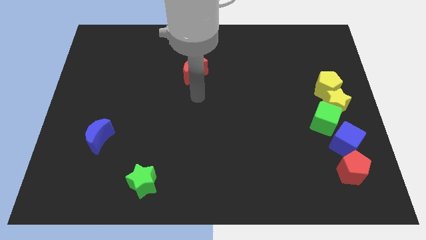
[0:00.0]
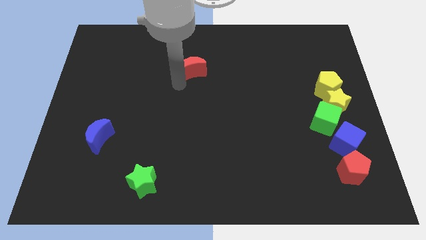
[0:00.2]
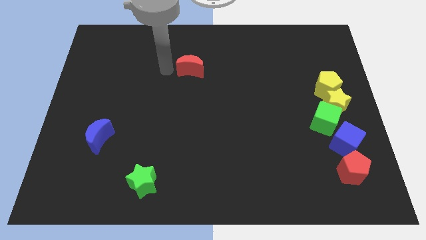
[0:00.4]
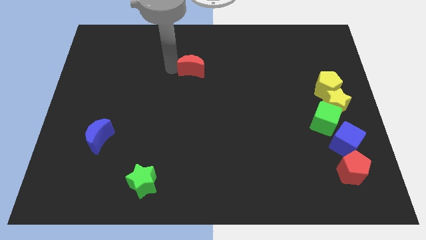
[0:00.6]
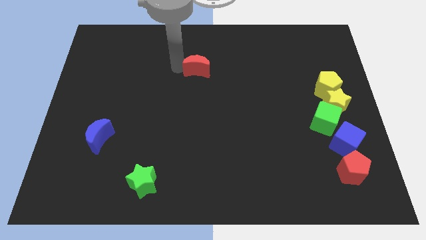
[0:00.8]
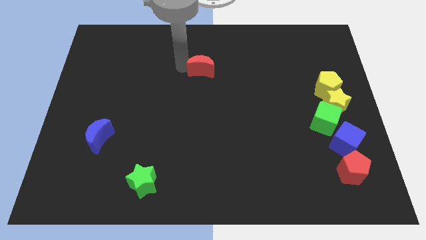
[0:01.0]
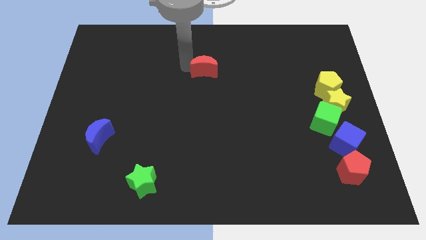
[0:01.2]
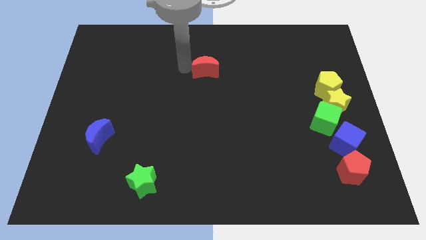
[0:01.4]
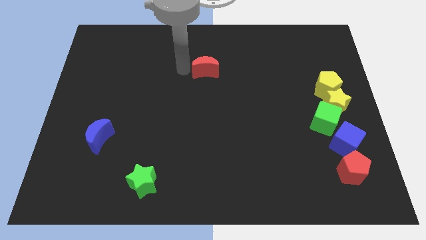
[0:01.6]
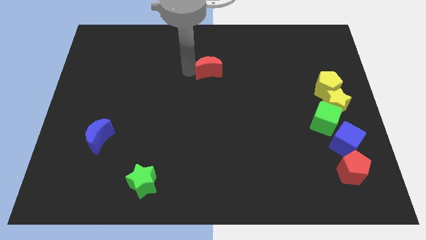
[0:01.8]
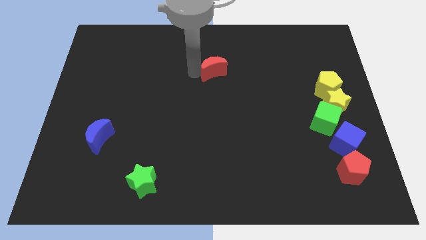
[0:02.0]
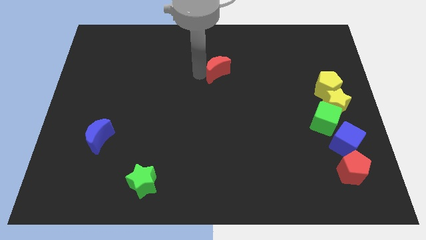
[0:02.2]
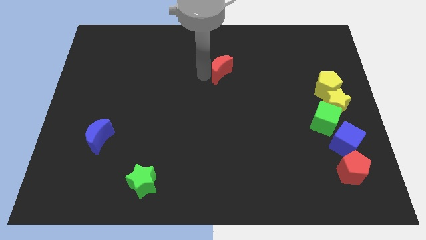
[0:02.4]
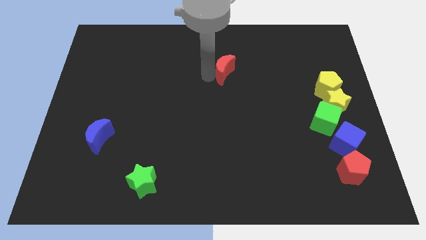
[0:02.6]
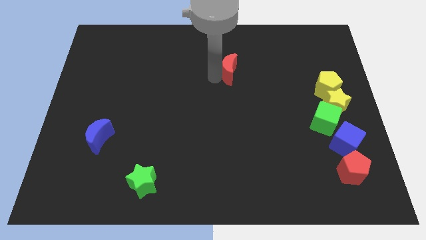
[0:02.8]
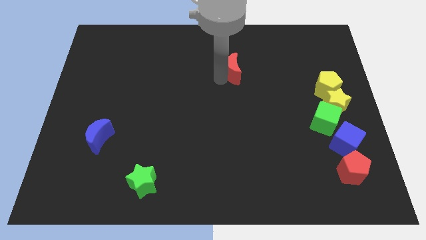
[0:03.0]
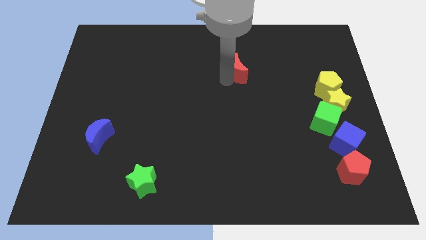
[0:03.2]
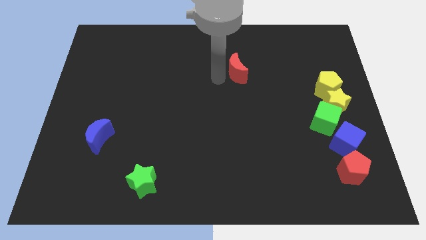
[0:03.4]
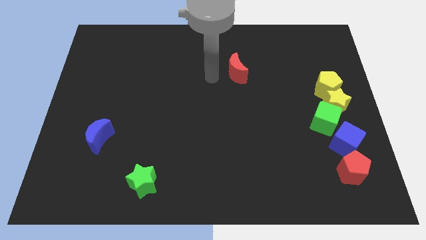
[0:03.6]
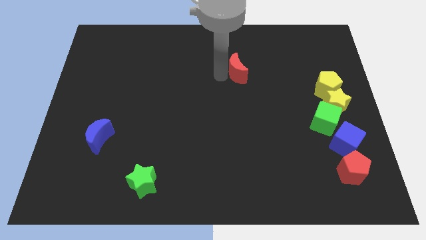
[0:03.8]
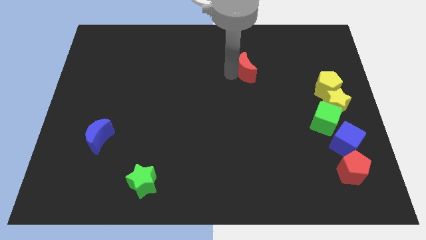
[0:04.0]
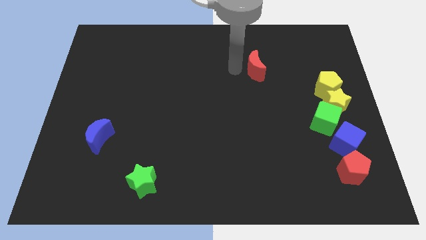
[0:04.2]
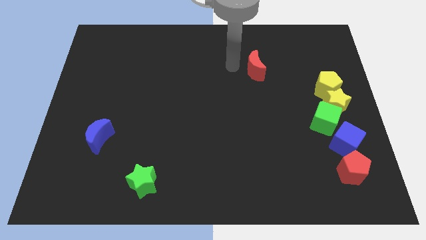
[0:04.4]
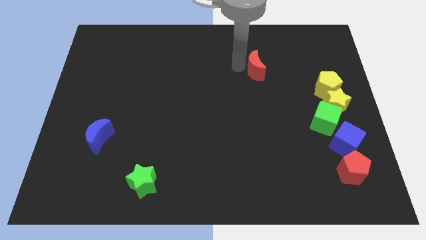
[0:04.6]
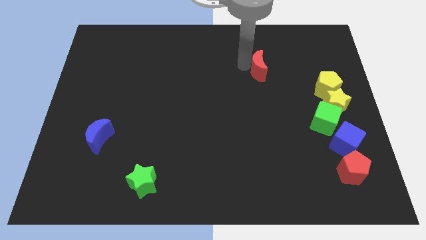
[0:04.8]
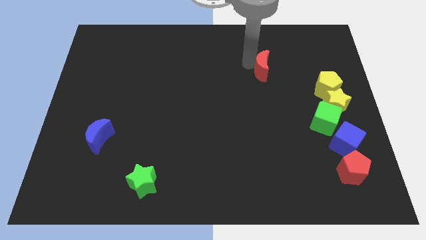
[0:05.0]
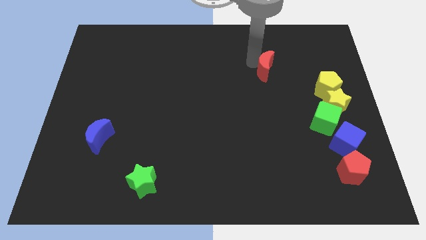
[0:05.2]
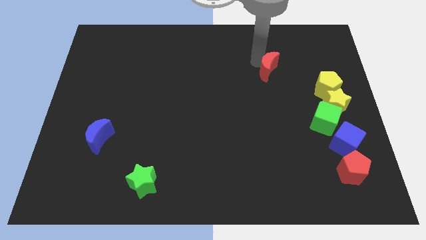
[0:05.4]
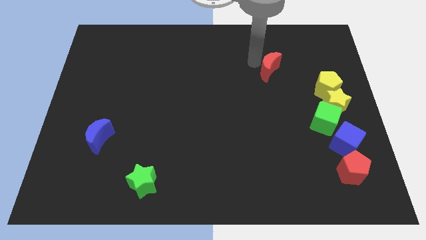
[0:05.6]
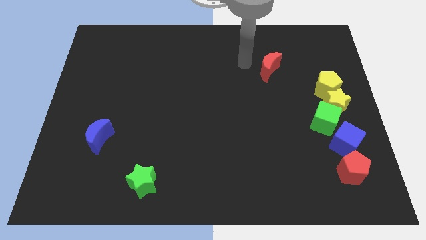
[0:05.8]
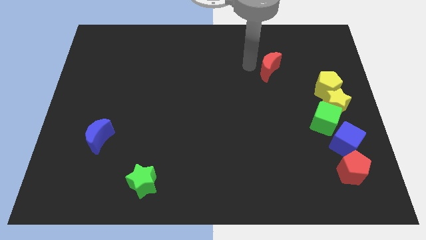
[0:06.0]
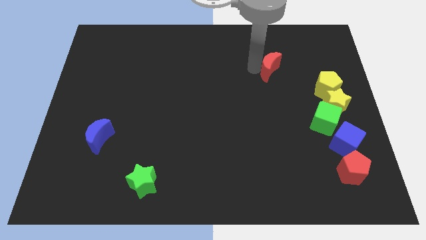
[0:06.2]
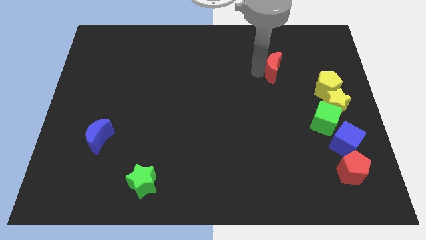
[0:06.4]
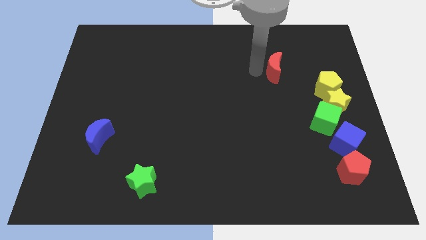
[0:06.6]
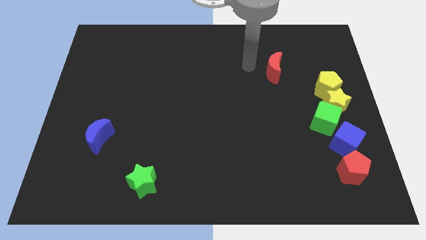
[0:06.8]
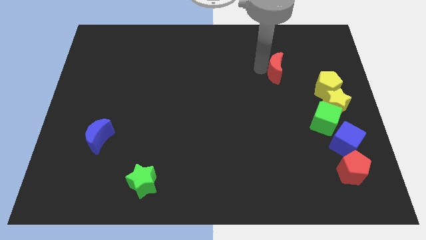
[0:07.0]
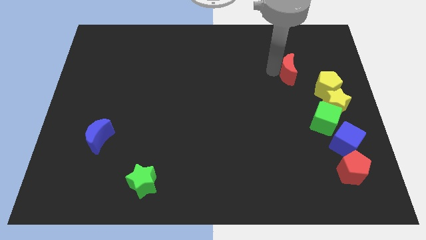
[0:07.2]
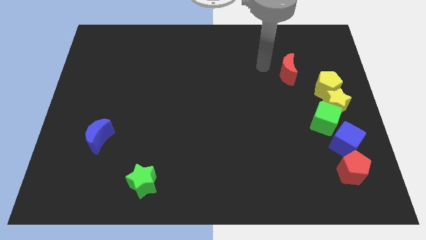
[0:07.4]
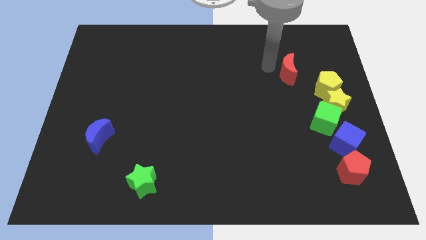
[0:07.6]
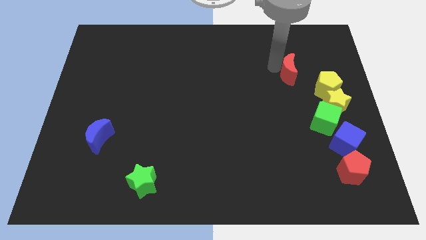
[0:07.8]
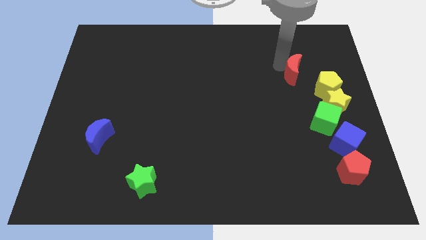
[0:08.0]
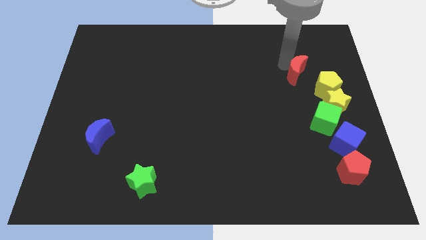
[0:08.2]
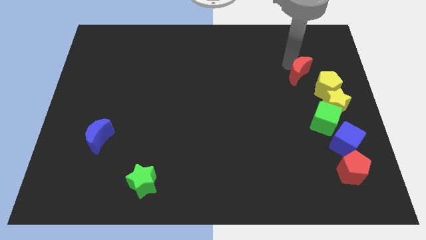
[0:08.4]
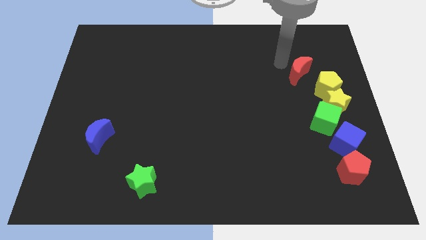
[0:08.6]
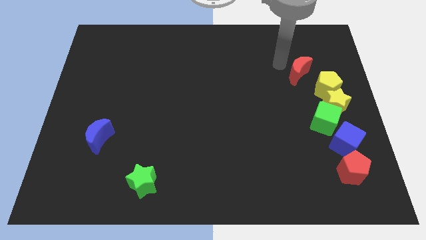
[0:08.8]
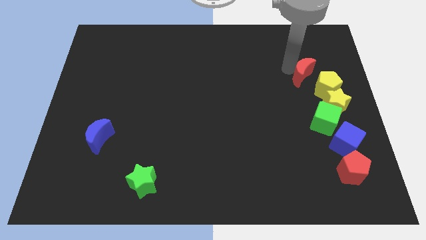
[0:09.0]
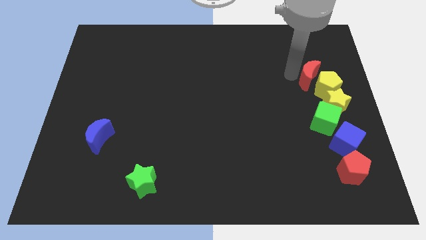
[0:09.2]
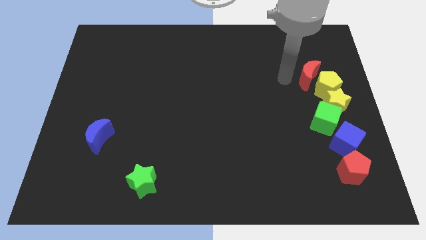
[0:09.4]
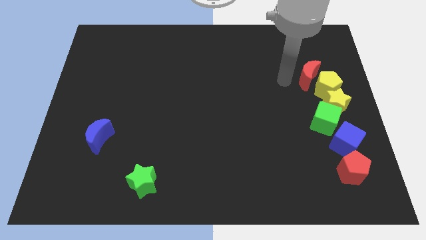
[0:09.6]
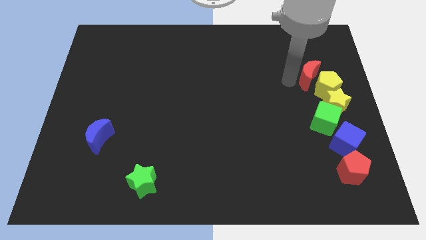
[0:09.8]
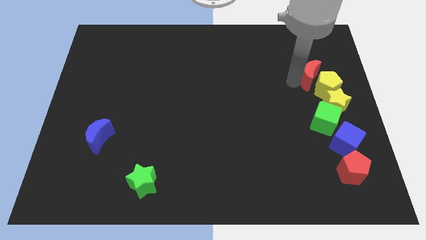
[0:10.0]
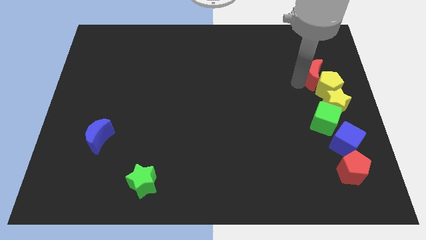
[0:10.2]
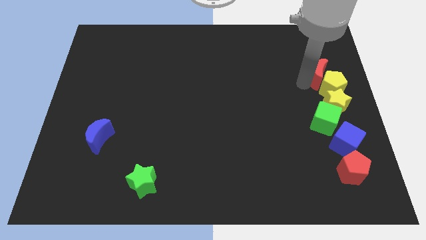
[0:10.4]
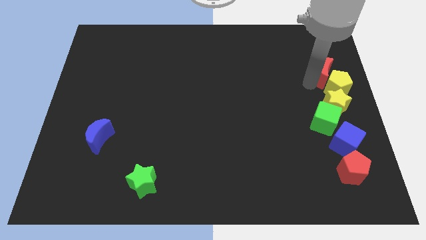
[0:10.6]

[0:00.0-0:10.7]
move the red moon to the right side of the board

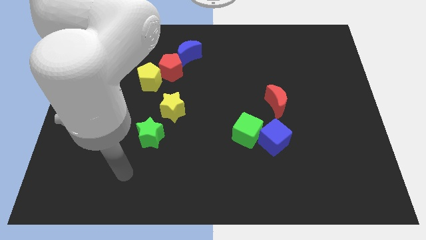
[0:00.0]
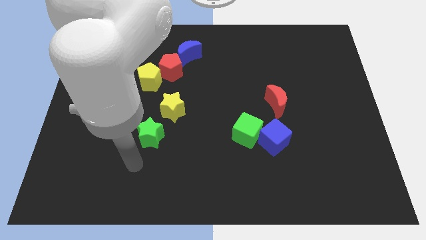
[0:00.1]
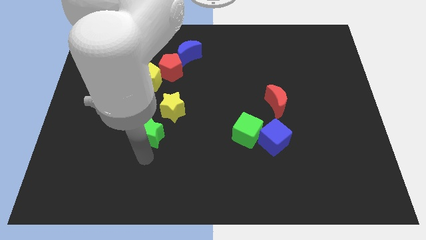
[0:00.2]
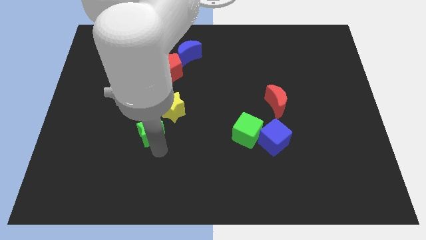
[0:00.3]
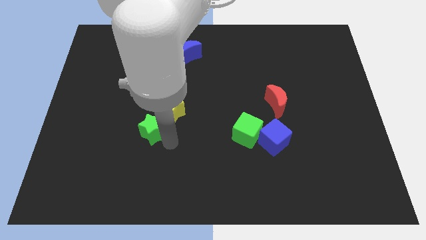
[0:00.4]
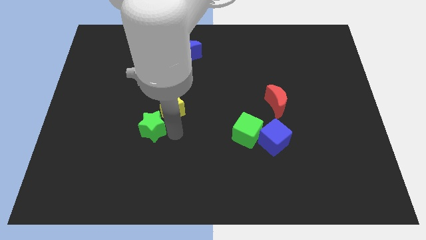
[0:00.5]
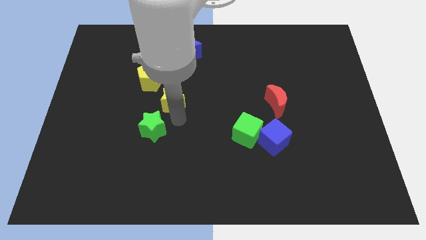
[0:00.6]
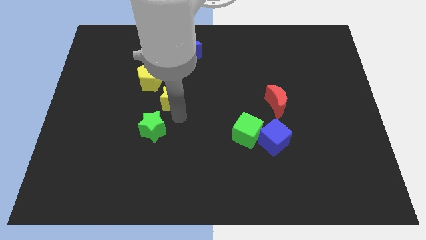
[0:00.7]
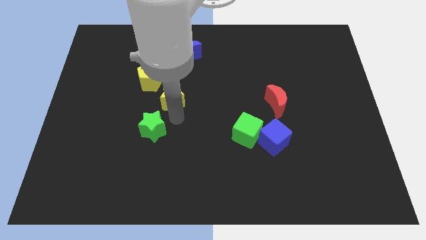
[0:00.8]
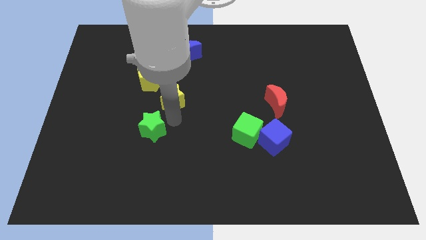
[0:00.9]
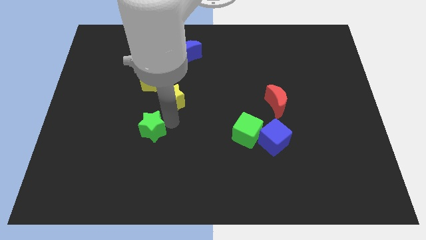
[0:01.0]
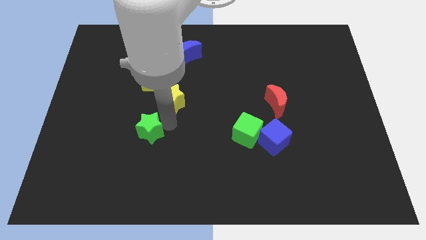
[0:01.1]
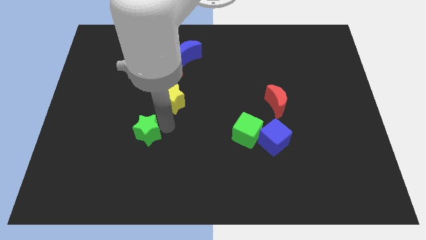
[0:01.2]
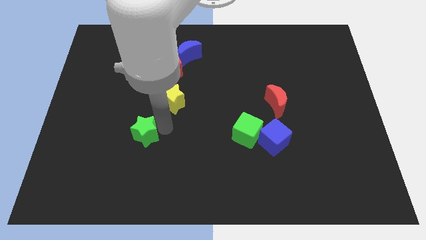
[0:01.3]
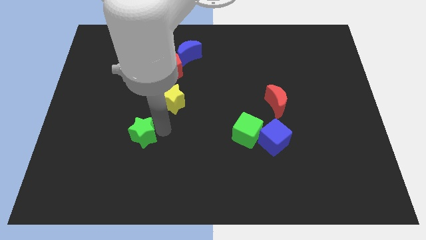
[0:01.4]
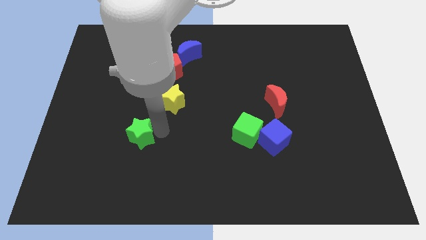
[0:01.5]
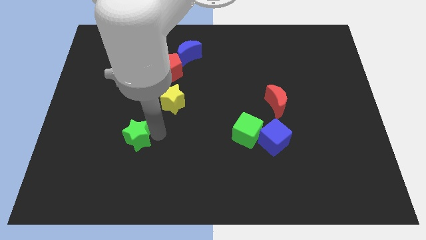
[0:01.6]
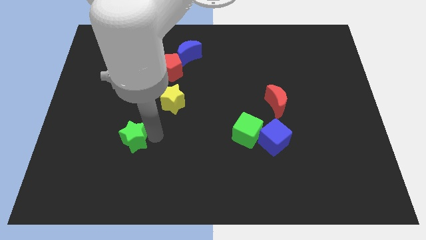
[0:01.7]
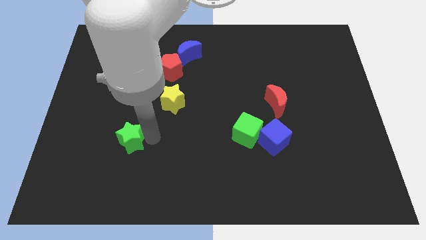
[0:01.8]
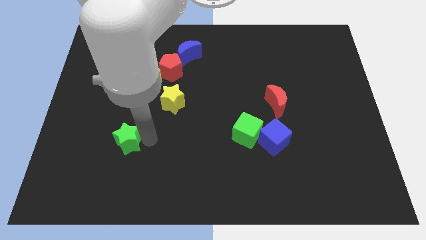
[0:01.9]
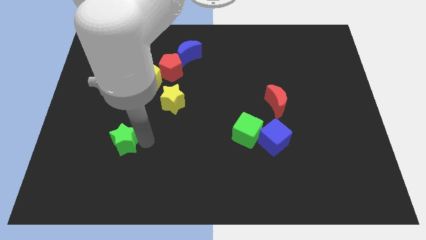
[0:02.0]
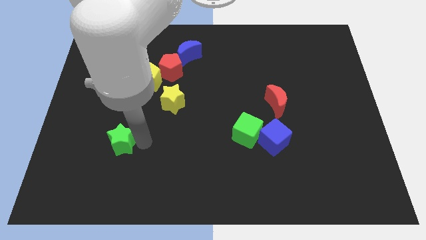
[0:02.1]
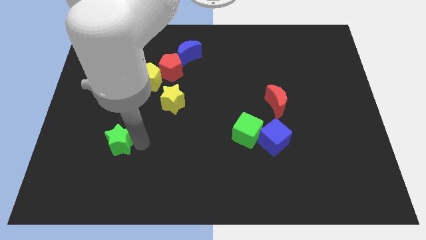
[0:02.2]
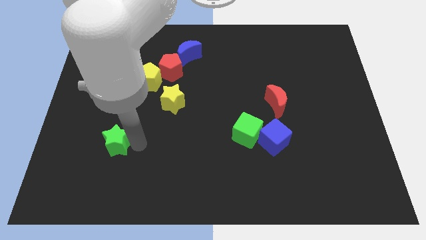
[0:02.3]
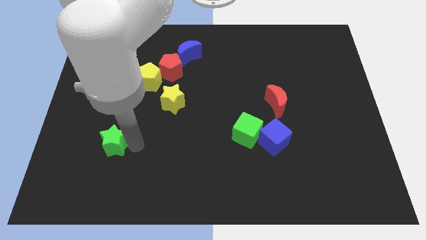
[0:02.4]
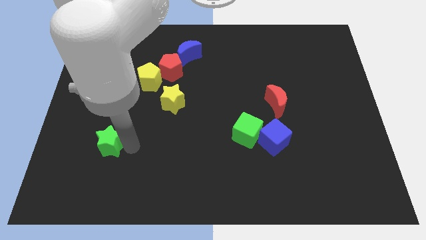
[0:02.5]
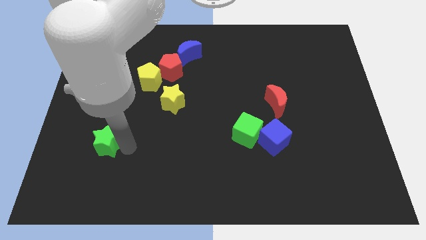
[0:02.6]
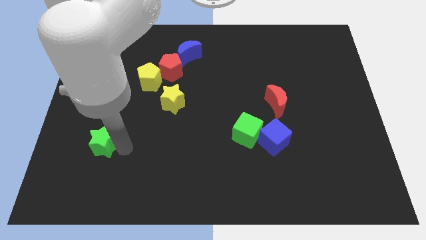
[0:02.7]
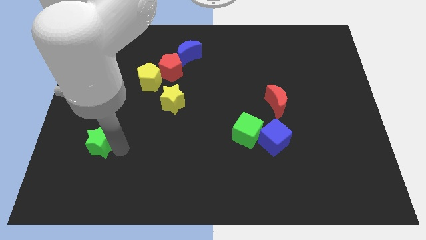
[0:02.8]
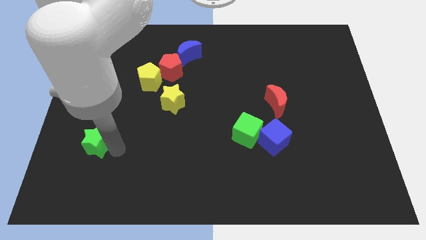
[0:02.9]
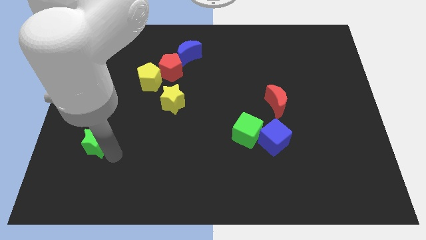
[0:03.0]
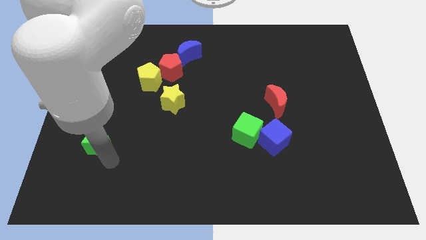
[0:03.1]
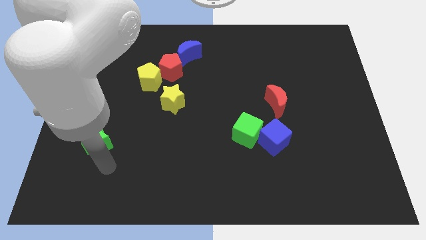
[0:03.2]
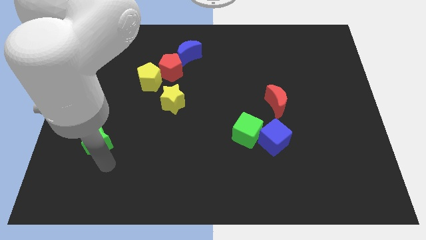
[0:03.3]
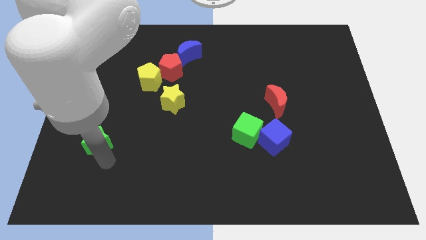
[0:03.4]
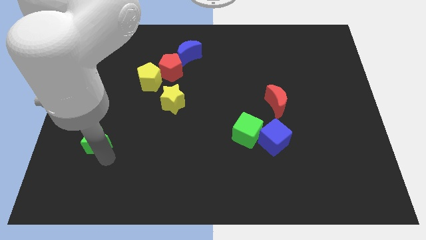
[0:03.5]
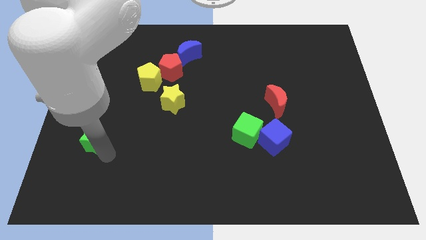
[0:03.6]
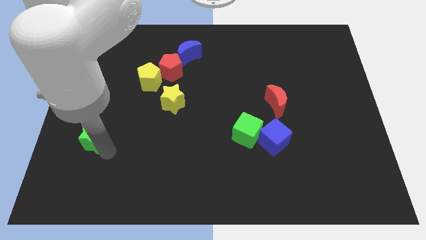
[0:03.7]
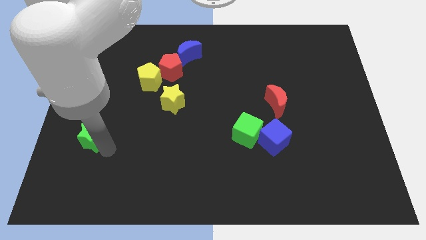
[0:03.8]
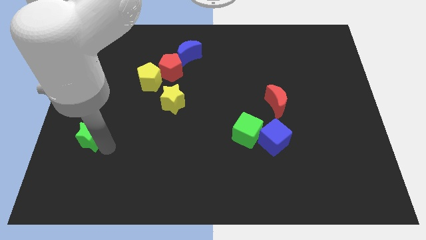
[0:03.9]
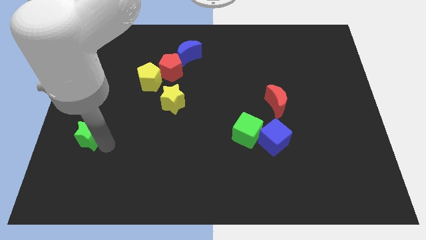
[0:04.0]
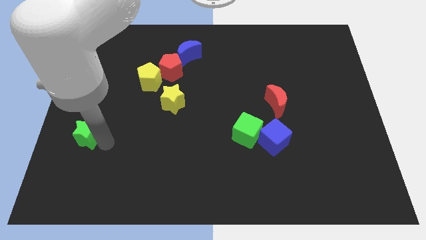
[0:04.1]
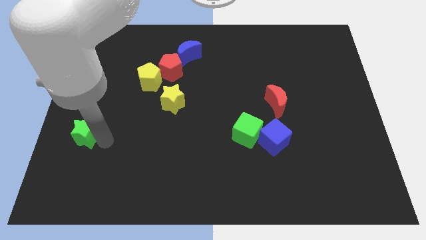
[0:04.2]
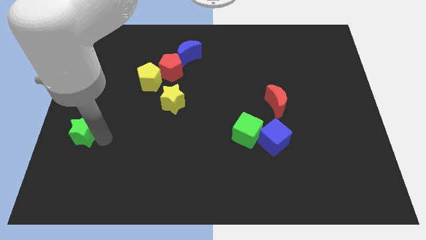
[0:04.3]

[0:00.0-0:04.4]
move the green star to the left side
